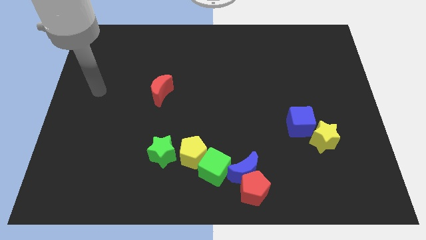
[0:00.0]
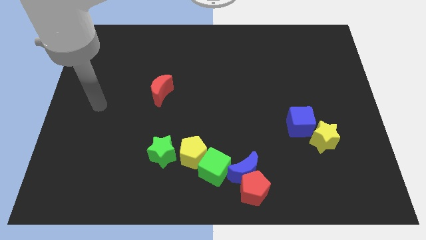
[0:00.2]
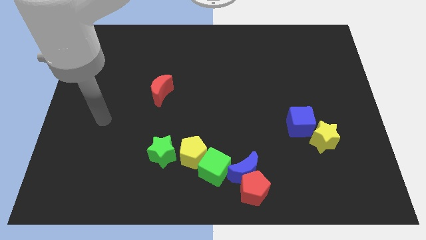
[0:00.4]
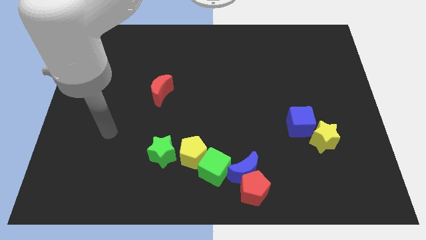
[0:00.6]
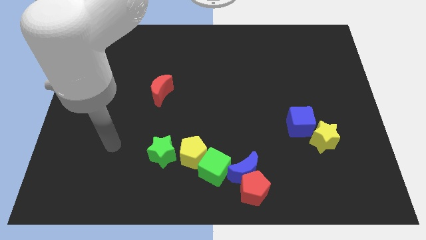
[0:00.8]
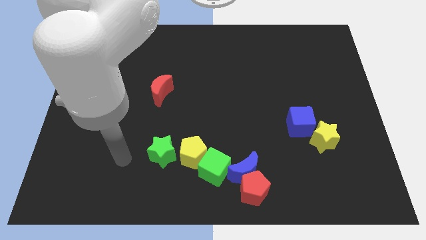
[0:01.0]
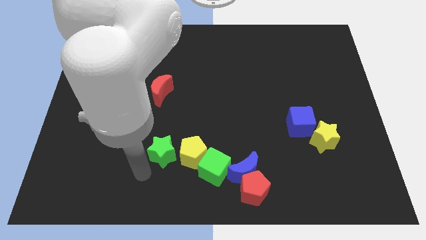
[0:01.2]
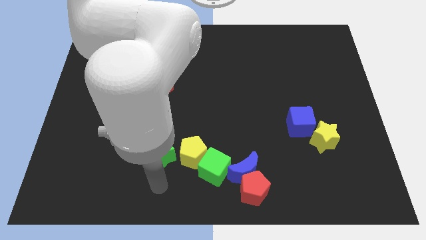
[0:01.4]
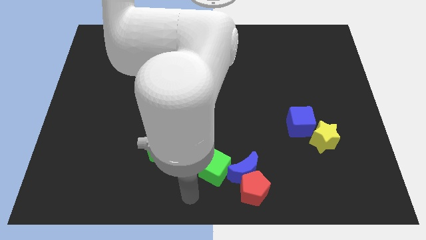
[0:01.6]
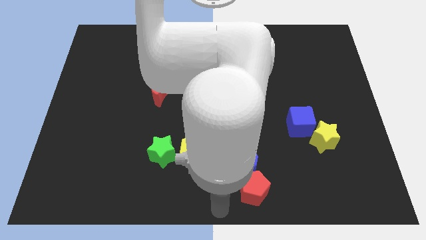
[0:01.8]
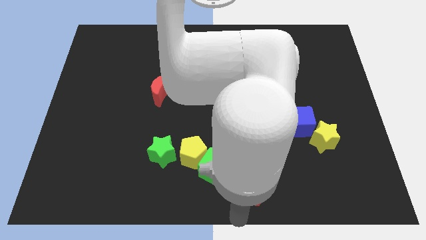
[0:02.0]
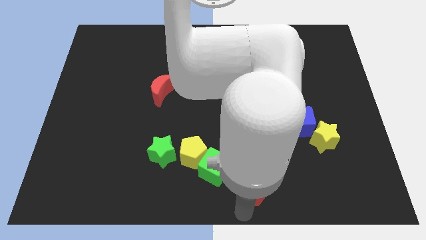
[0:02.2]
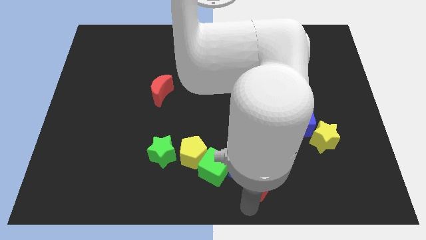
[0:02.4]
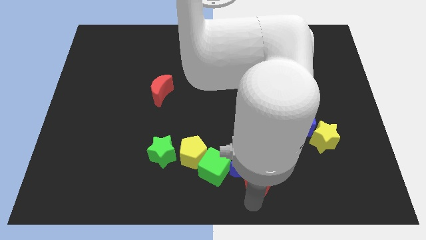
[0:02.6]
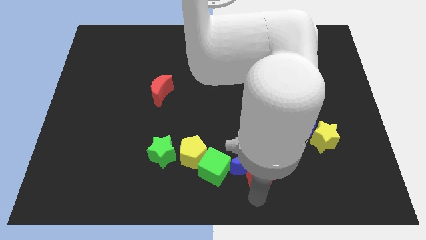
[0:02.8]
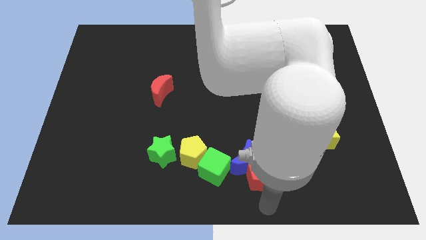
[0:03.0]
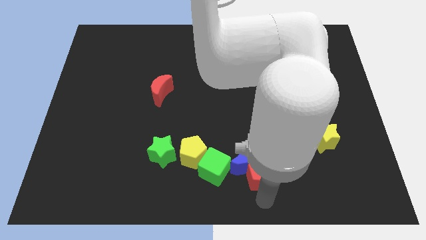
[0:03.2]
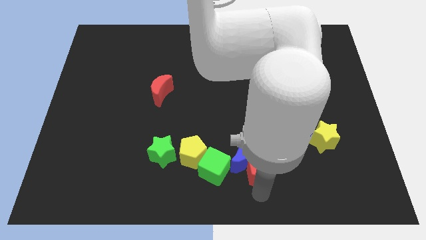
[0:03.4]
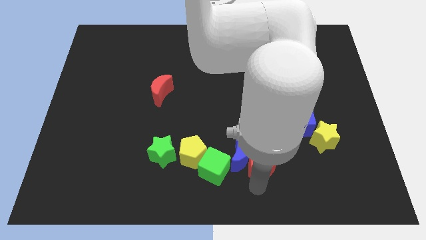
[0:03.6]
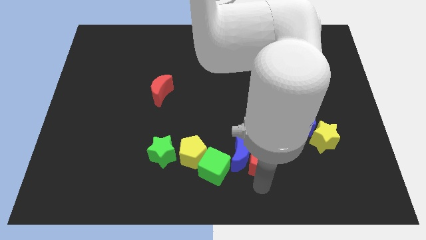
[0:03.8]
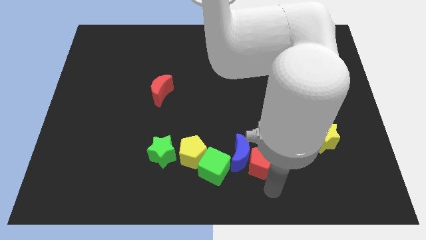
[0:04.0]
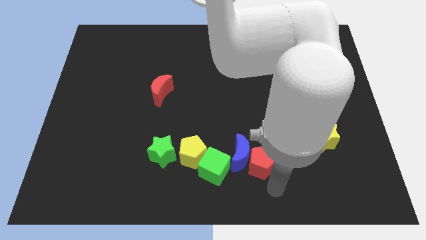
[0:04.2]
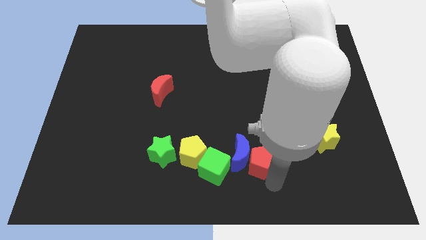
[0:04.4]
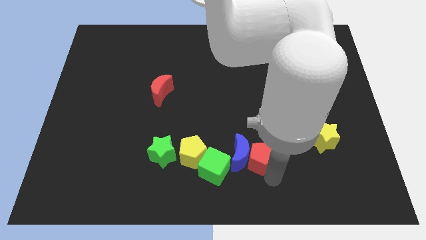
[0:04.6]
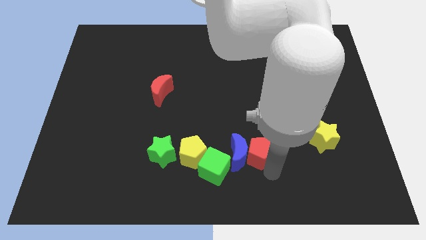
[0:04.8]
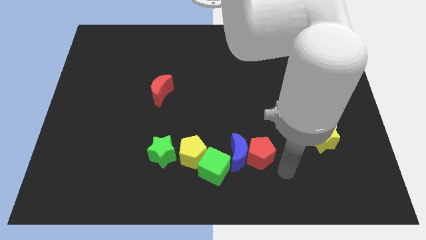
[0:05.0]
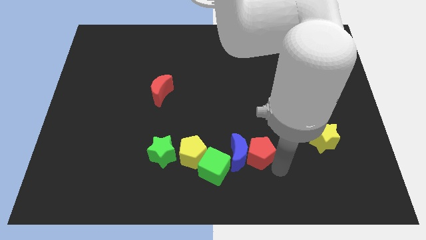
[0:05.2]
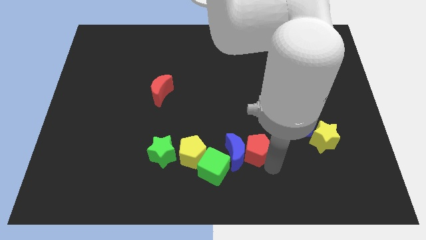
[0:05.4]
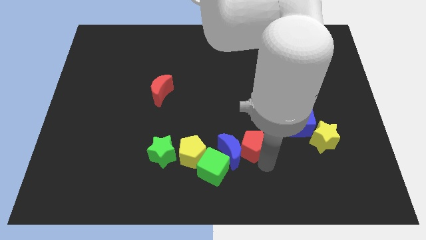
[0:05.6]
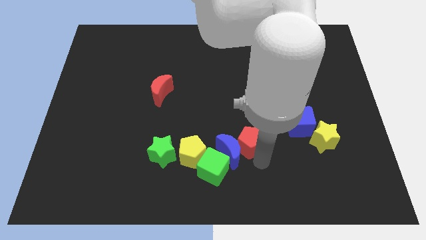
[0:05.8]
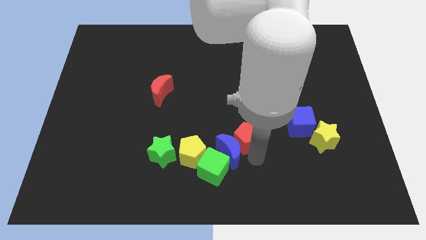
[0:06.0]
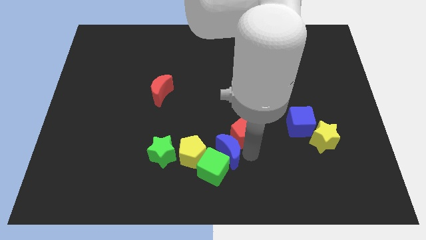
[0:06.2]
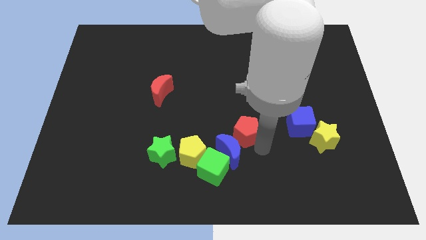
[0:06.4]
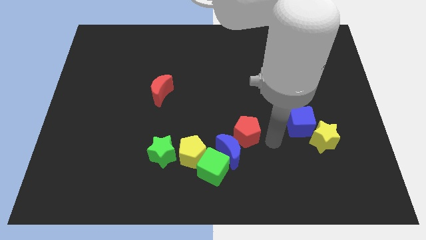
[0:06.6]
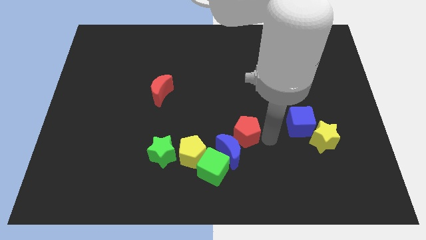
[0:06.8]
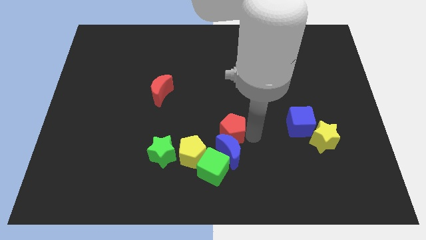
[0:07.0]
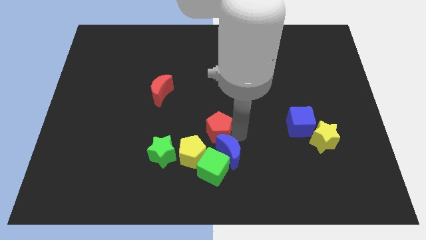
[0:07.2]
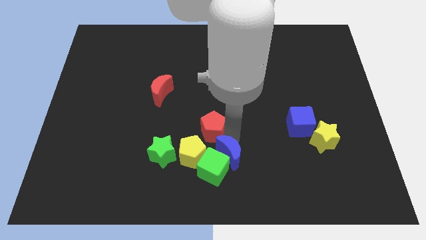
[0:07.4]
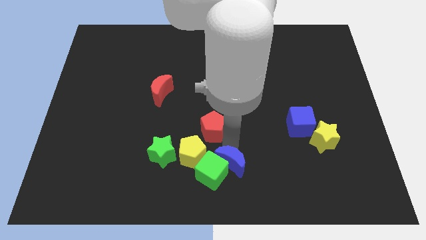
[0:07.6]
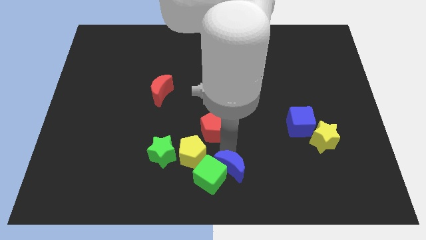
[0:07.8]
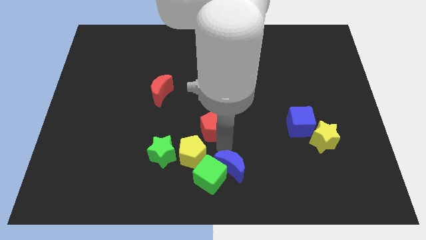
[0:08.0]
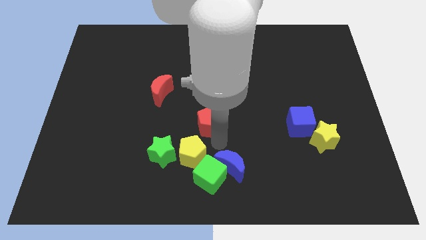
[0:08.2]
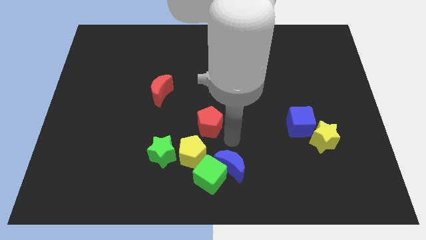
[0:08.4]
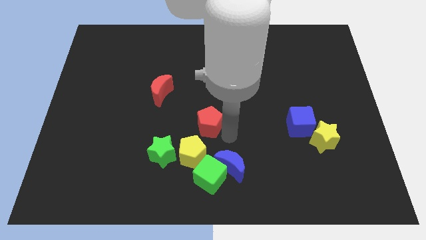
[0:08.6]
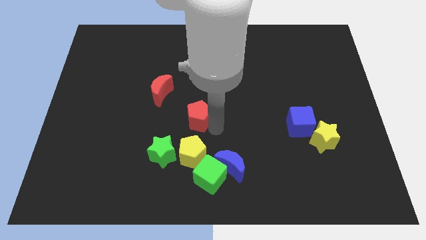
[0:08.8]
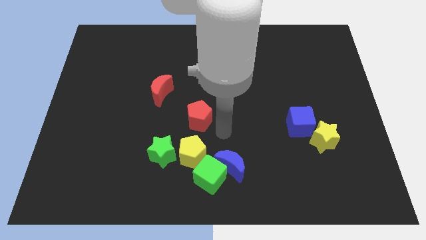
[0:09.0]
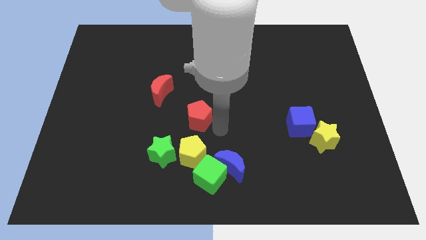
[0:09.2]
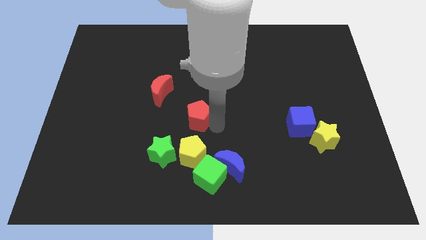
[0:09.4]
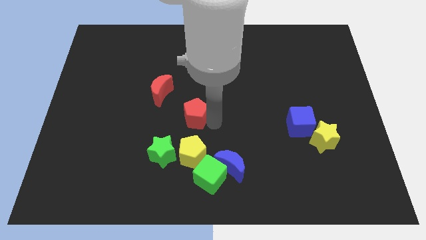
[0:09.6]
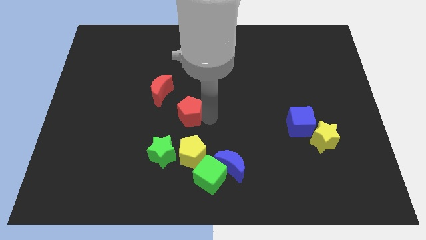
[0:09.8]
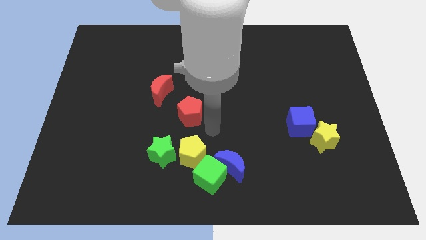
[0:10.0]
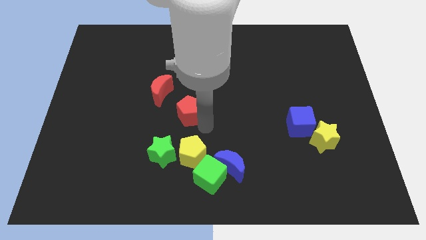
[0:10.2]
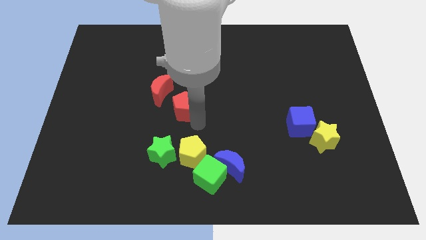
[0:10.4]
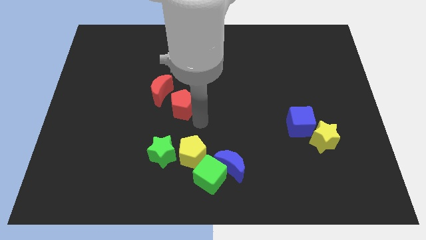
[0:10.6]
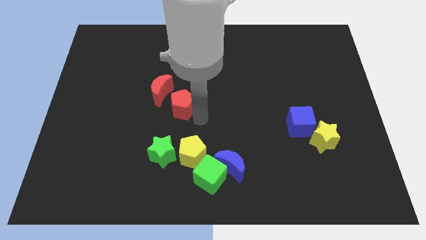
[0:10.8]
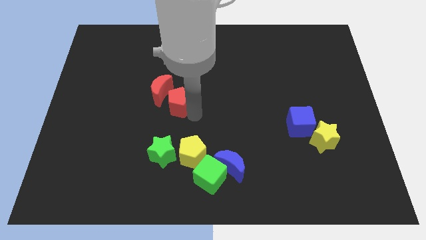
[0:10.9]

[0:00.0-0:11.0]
push the red pentagon next to the red moon

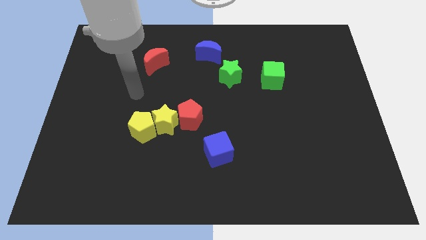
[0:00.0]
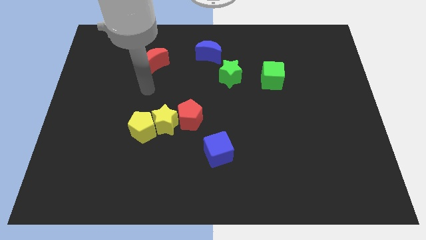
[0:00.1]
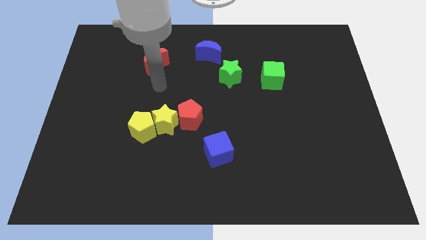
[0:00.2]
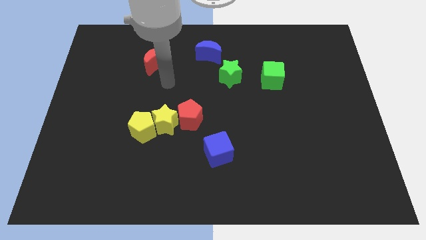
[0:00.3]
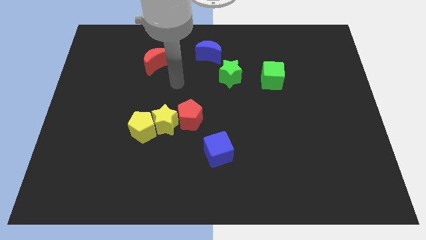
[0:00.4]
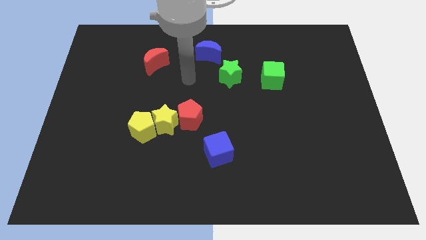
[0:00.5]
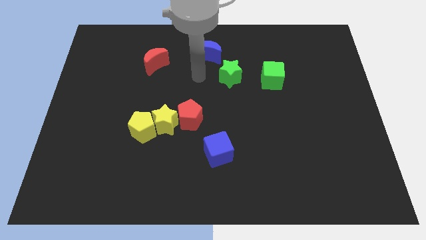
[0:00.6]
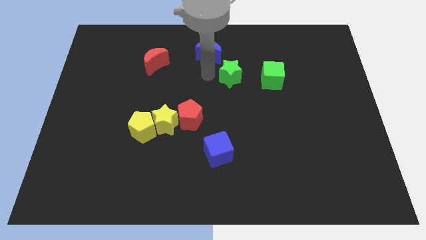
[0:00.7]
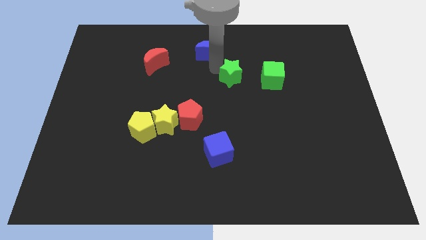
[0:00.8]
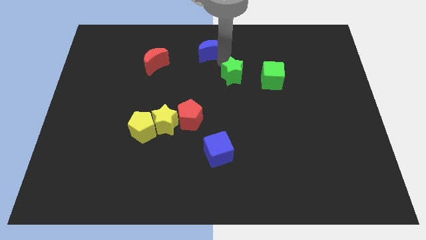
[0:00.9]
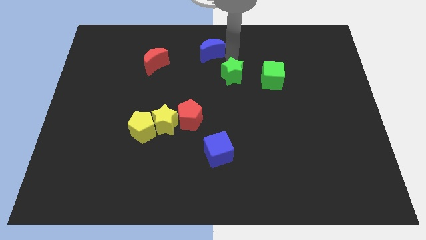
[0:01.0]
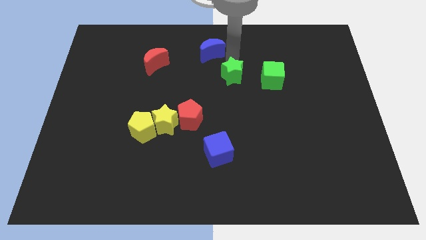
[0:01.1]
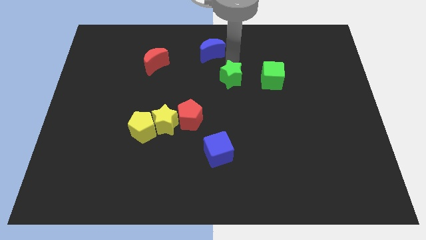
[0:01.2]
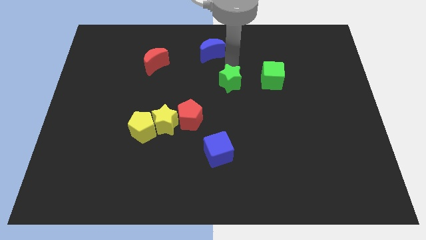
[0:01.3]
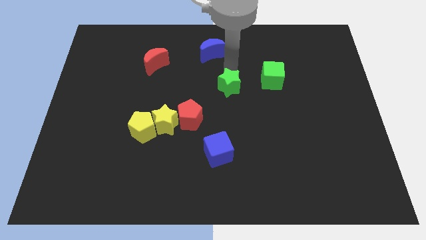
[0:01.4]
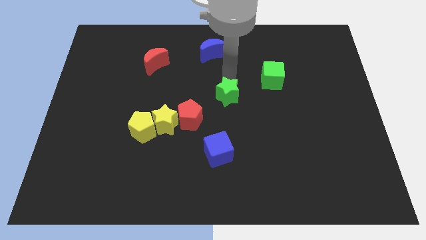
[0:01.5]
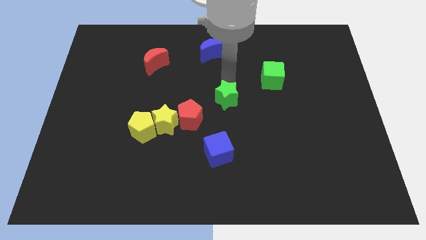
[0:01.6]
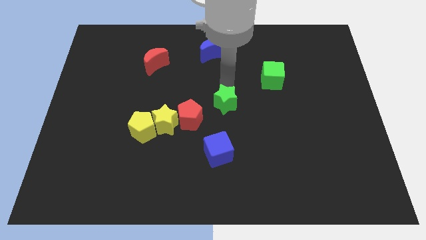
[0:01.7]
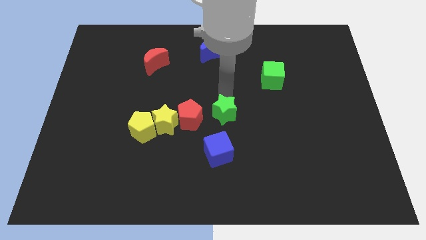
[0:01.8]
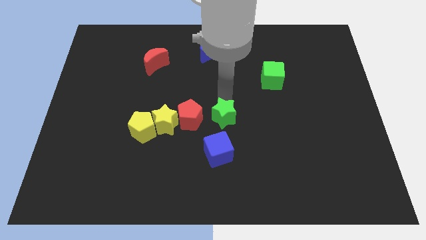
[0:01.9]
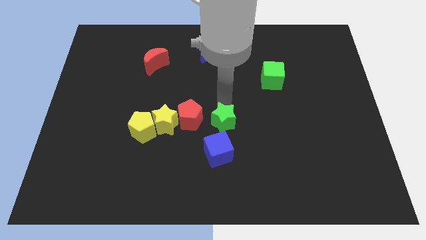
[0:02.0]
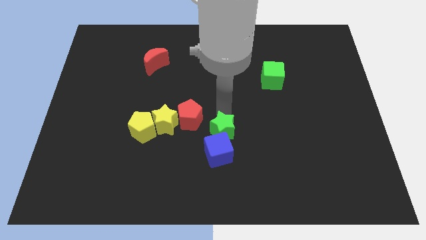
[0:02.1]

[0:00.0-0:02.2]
push the green star towards the blue cube
